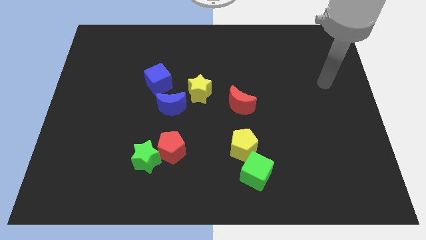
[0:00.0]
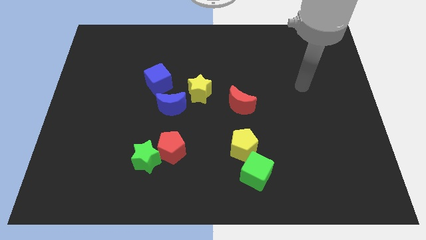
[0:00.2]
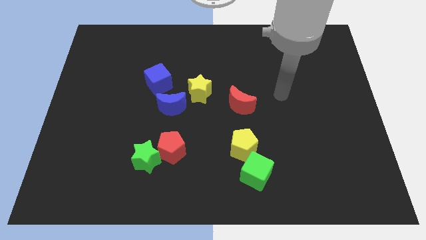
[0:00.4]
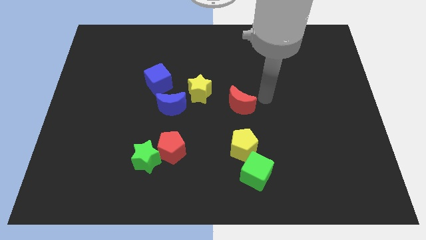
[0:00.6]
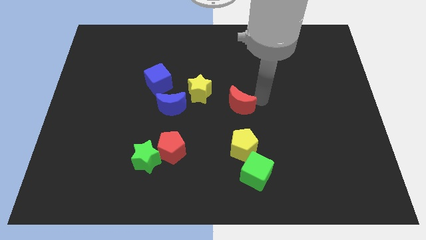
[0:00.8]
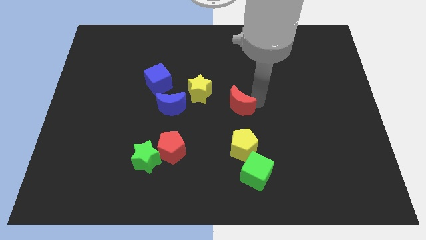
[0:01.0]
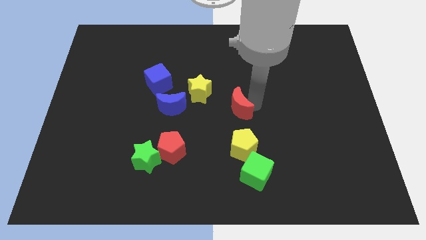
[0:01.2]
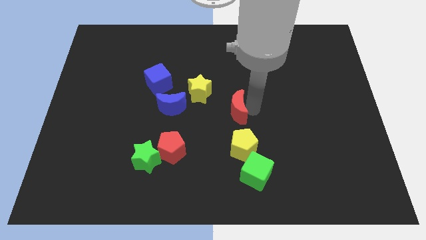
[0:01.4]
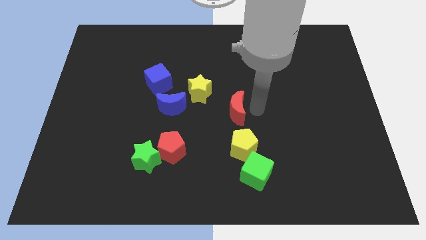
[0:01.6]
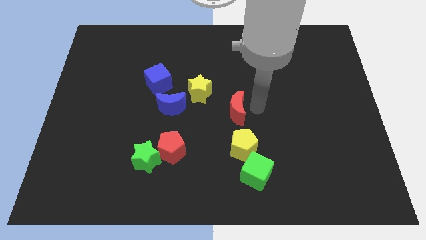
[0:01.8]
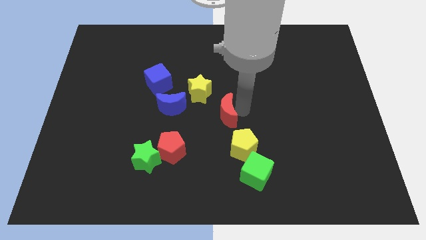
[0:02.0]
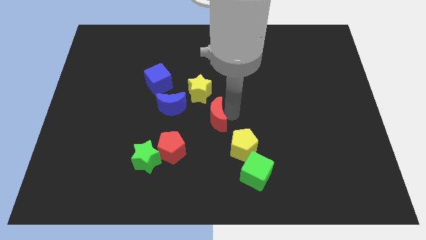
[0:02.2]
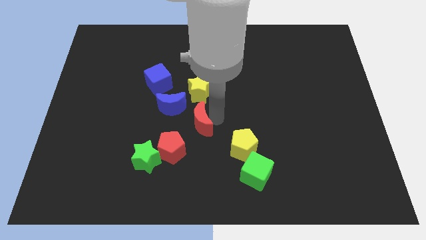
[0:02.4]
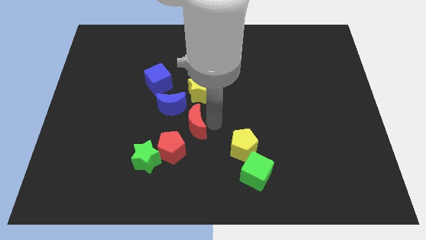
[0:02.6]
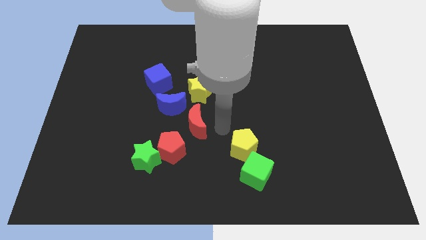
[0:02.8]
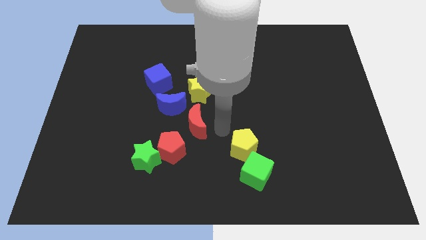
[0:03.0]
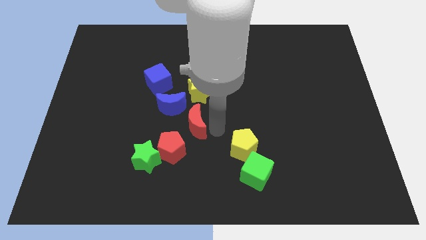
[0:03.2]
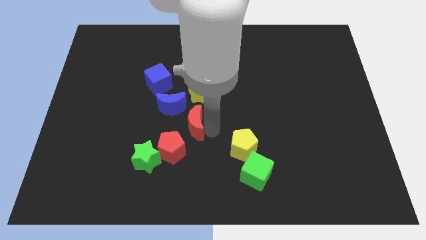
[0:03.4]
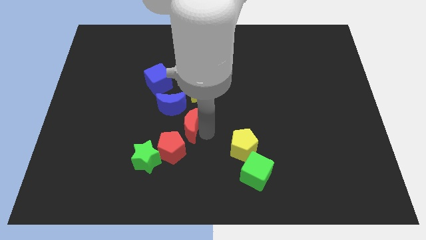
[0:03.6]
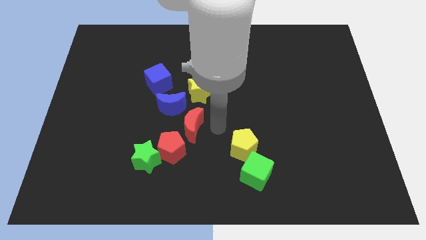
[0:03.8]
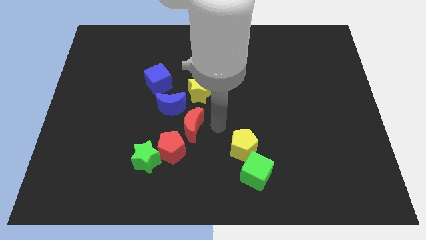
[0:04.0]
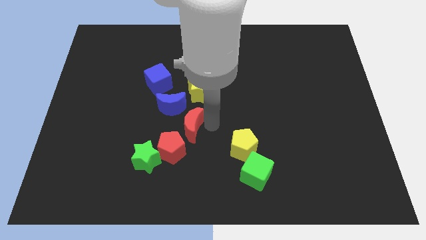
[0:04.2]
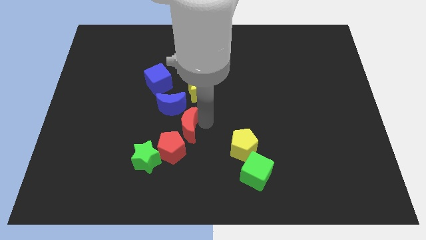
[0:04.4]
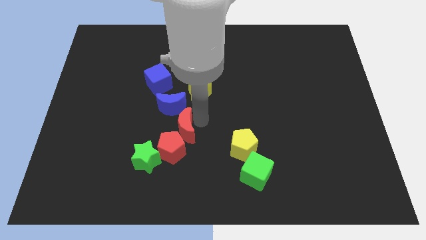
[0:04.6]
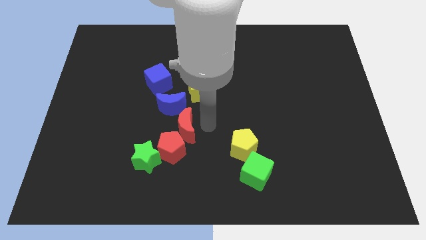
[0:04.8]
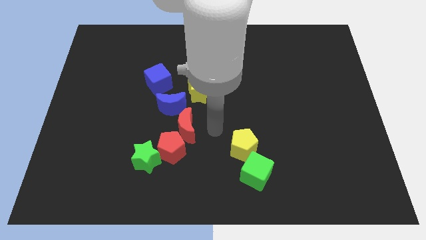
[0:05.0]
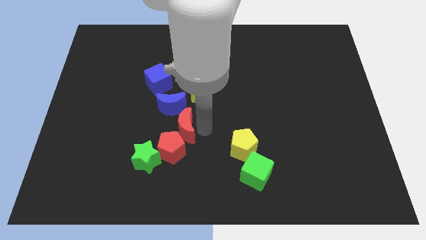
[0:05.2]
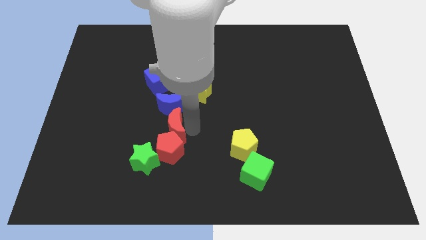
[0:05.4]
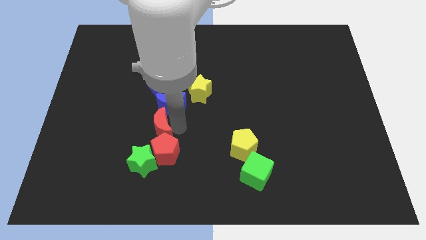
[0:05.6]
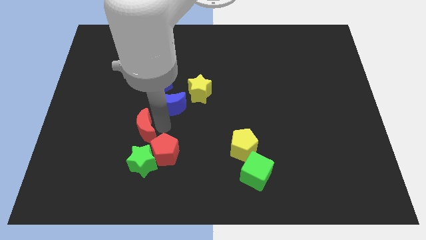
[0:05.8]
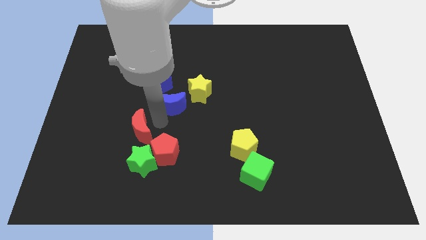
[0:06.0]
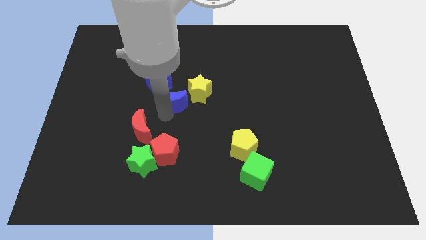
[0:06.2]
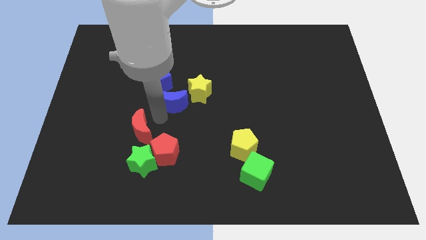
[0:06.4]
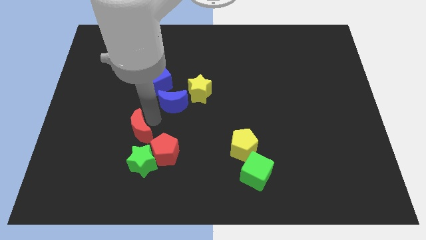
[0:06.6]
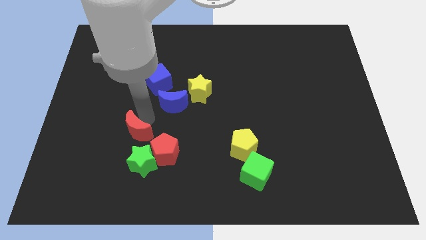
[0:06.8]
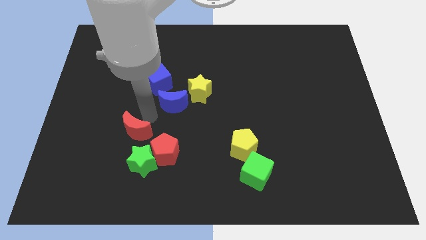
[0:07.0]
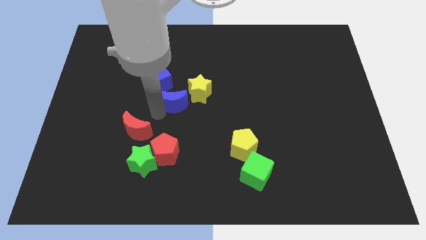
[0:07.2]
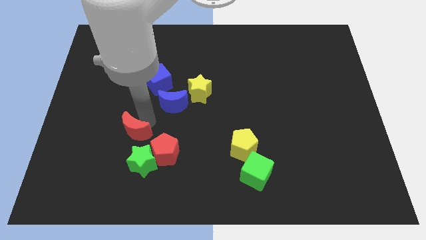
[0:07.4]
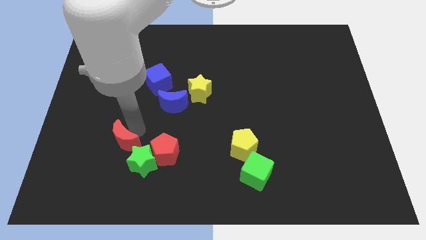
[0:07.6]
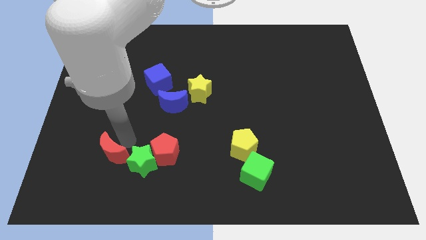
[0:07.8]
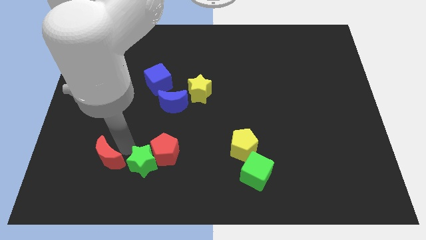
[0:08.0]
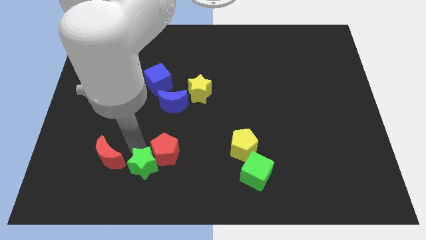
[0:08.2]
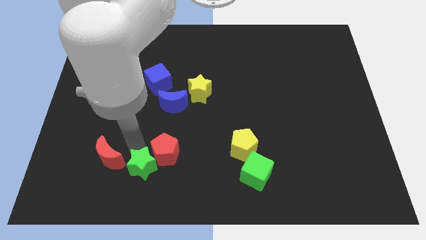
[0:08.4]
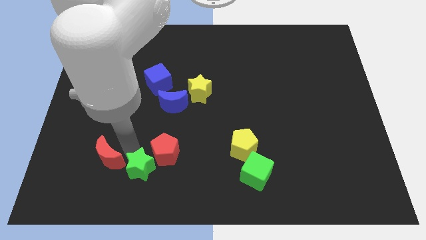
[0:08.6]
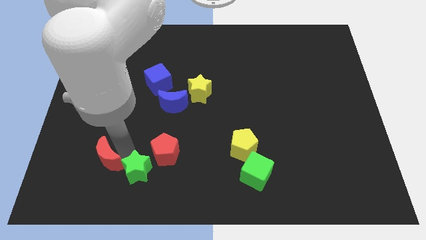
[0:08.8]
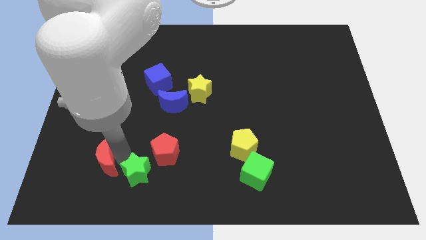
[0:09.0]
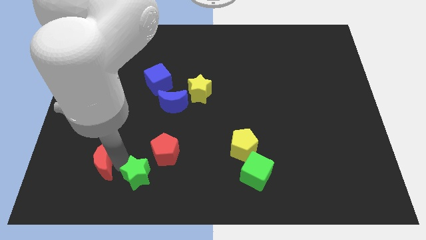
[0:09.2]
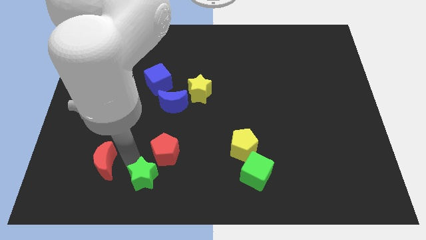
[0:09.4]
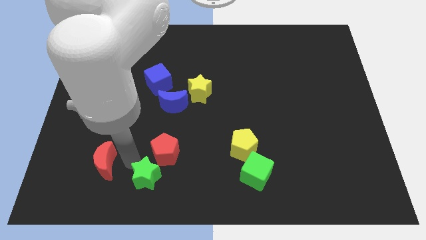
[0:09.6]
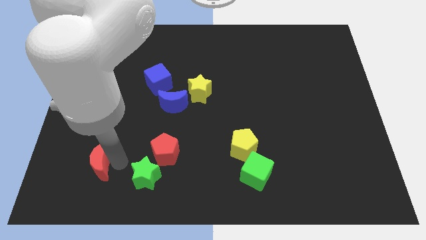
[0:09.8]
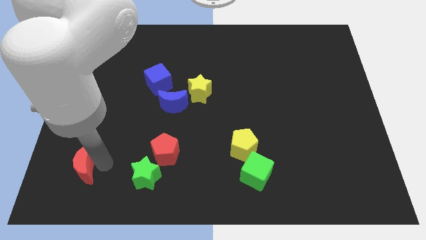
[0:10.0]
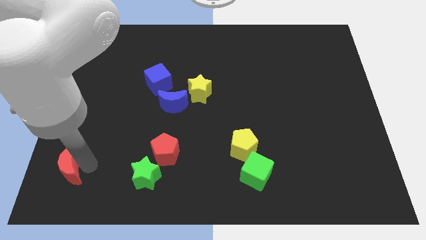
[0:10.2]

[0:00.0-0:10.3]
push the red moon to the lower left corner

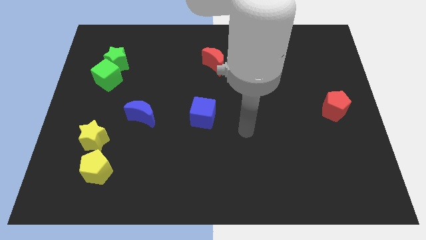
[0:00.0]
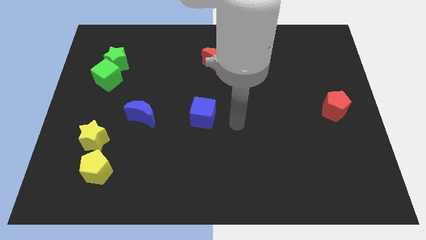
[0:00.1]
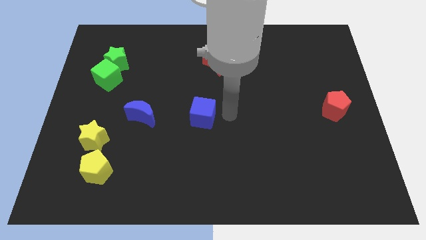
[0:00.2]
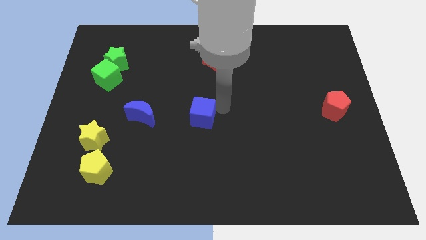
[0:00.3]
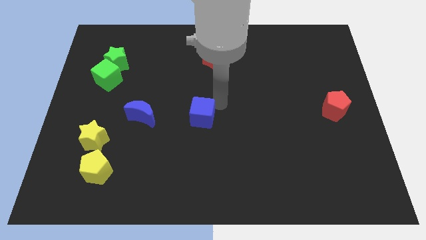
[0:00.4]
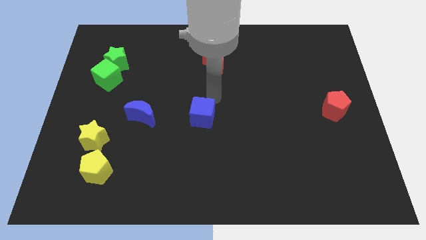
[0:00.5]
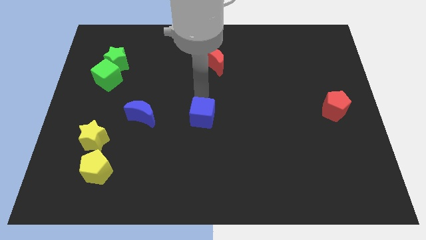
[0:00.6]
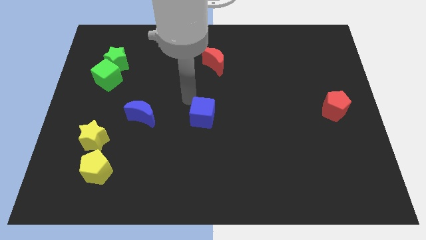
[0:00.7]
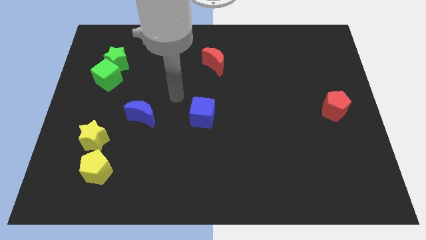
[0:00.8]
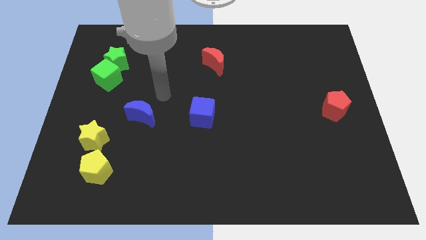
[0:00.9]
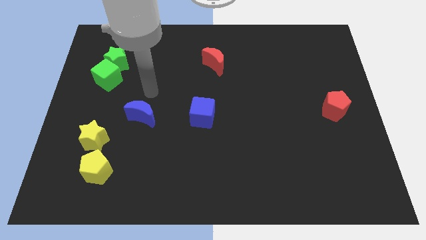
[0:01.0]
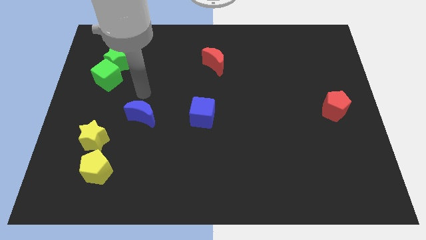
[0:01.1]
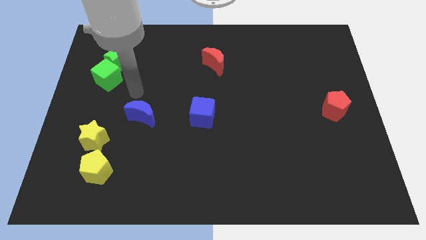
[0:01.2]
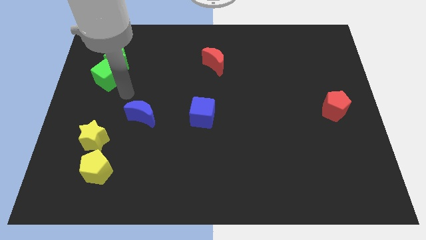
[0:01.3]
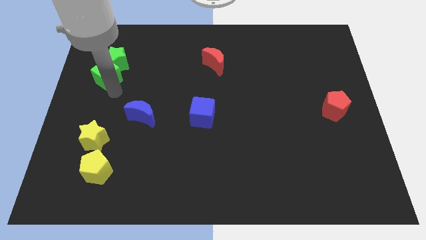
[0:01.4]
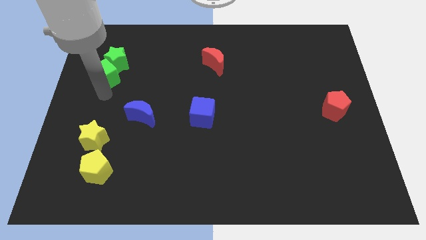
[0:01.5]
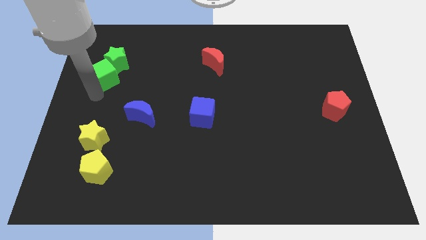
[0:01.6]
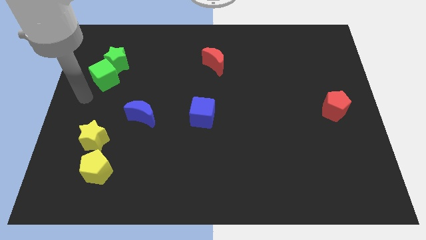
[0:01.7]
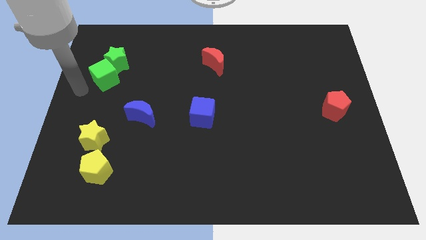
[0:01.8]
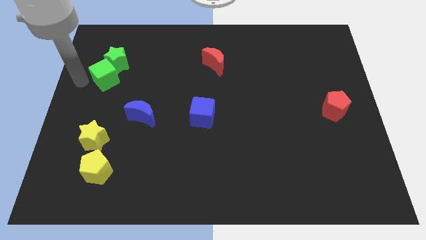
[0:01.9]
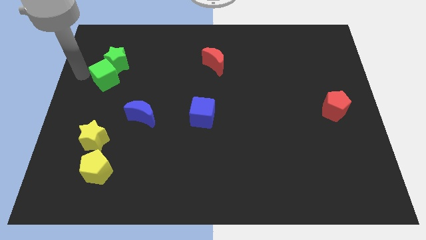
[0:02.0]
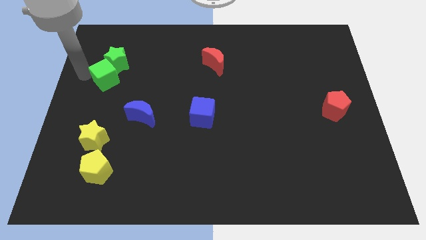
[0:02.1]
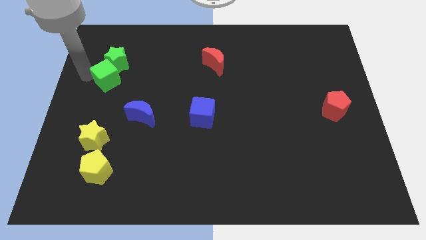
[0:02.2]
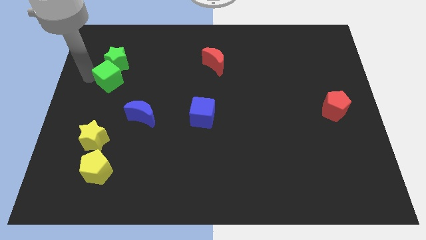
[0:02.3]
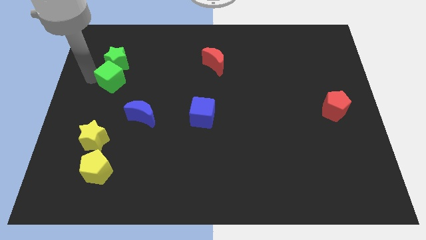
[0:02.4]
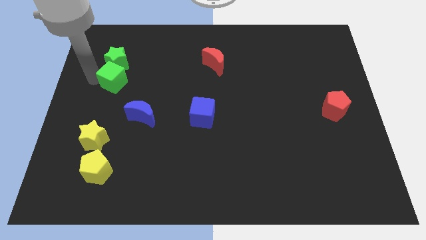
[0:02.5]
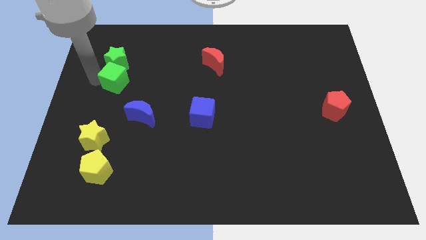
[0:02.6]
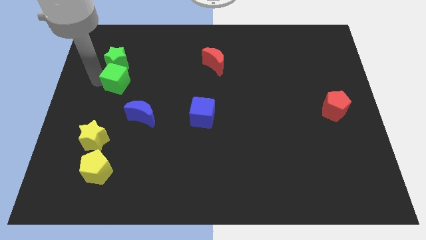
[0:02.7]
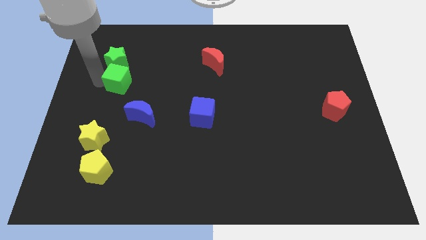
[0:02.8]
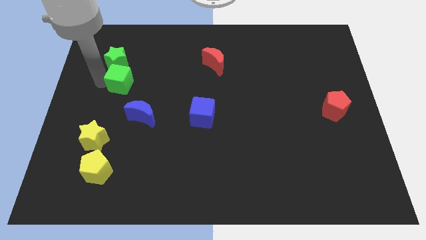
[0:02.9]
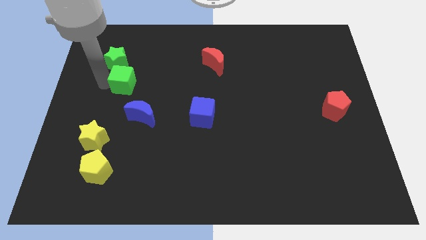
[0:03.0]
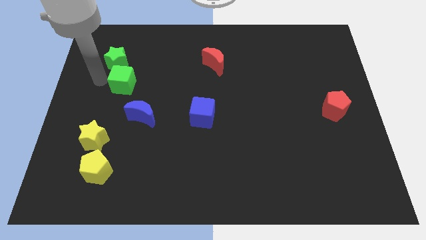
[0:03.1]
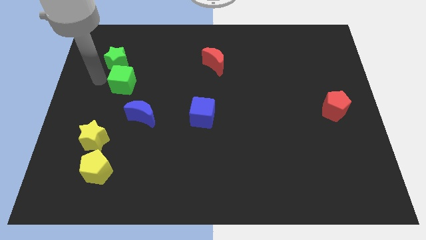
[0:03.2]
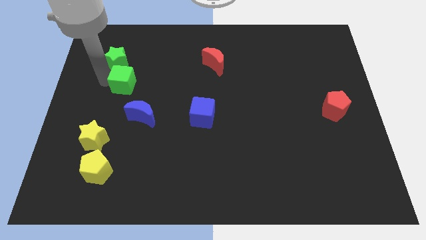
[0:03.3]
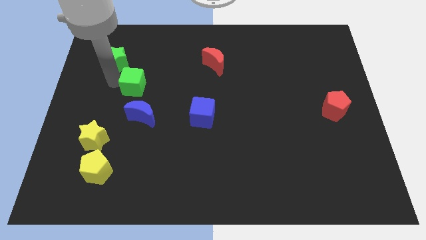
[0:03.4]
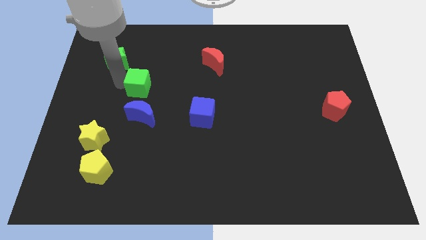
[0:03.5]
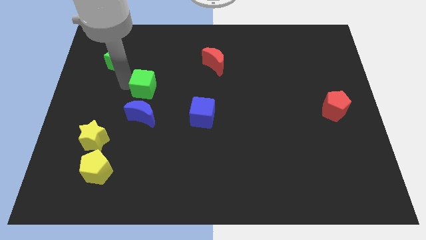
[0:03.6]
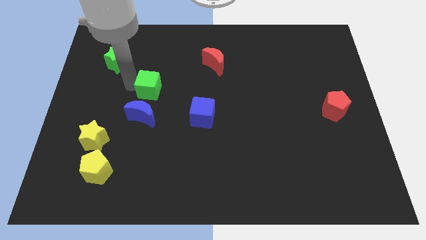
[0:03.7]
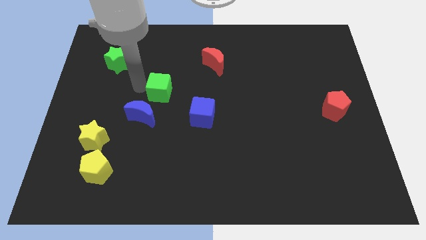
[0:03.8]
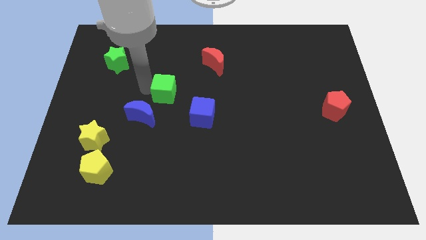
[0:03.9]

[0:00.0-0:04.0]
put the green cube to the middle of the board
